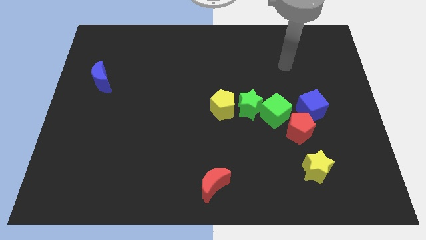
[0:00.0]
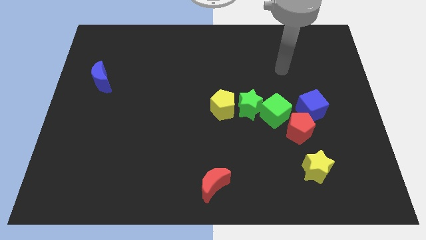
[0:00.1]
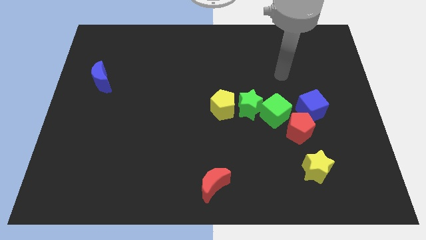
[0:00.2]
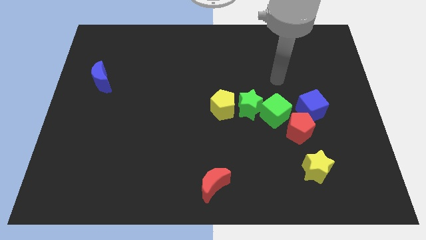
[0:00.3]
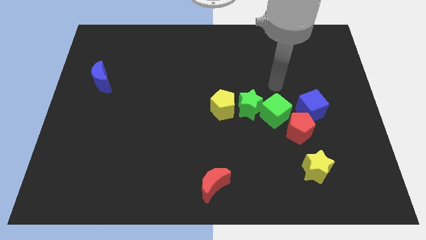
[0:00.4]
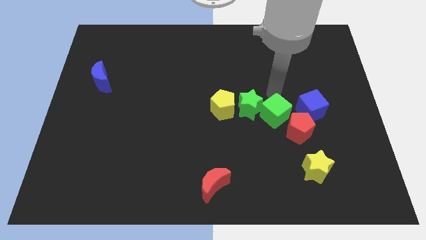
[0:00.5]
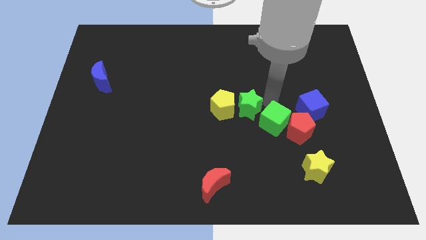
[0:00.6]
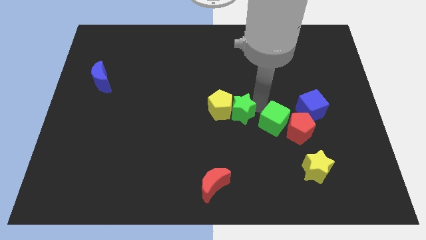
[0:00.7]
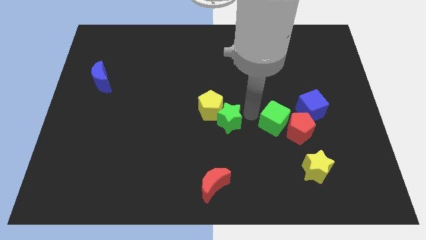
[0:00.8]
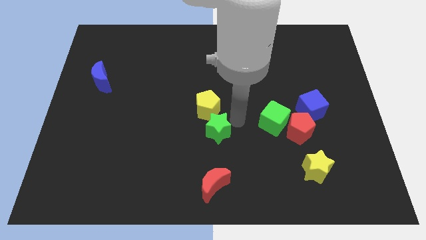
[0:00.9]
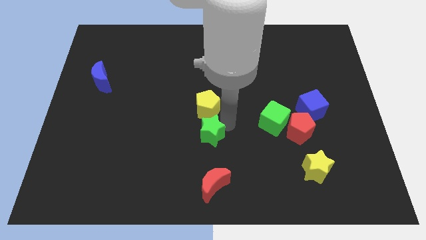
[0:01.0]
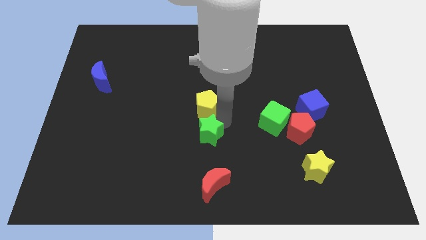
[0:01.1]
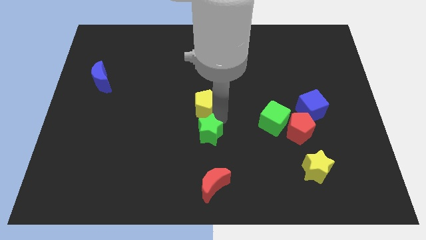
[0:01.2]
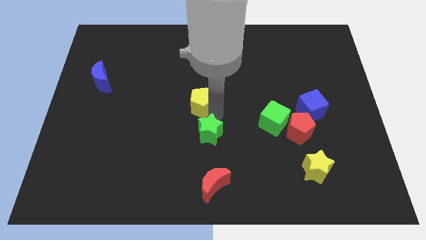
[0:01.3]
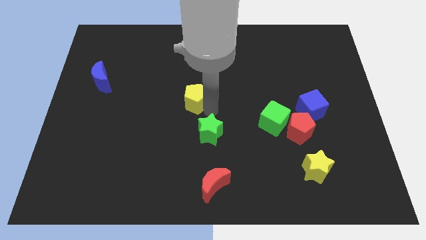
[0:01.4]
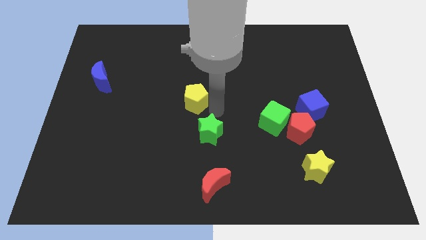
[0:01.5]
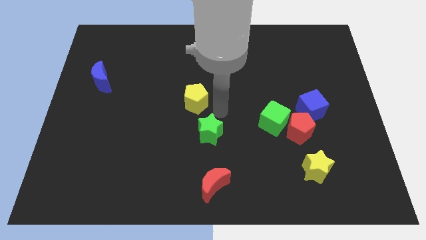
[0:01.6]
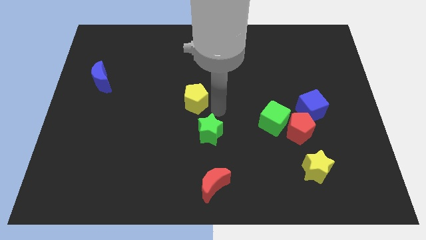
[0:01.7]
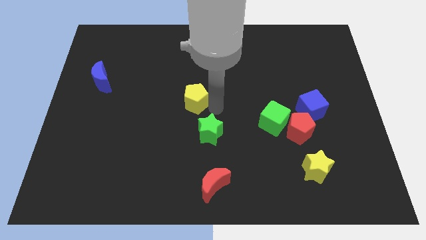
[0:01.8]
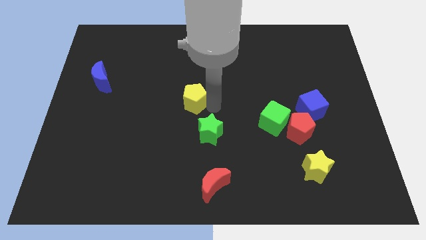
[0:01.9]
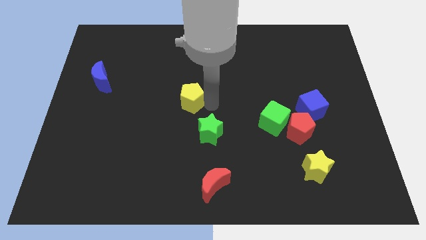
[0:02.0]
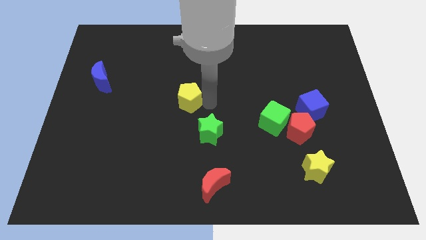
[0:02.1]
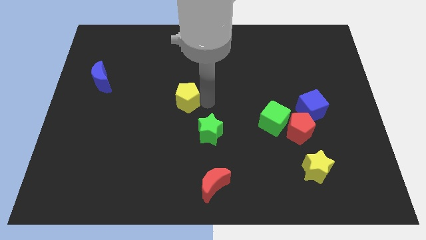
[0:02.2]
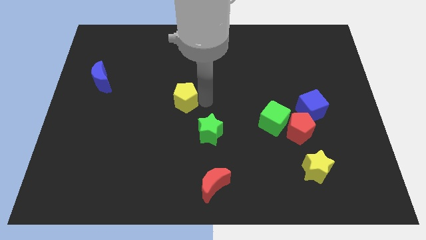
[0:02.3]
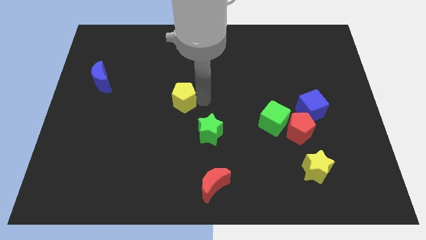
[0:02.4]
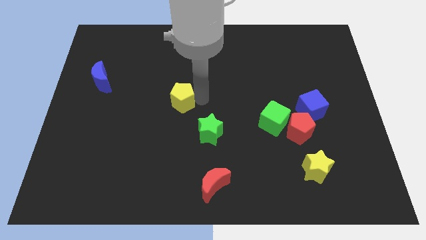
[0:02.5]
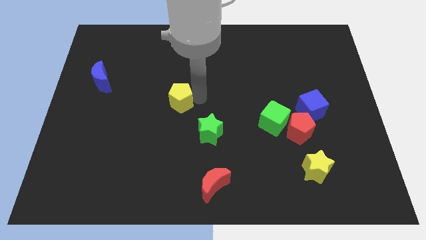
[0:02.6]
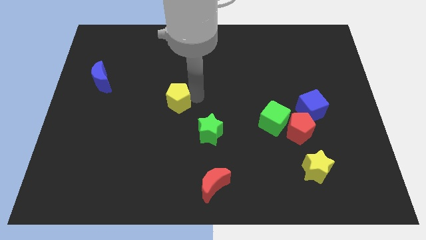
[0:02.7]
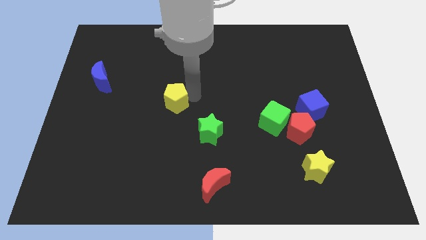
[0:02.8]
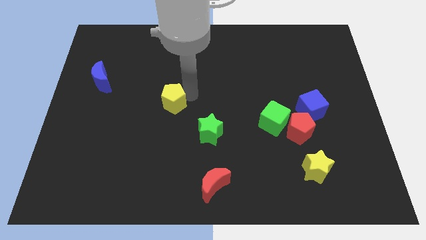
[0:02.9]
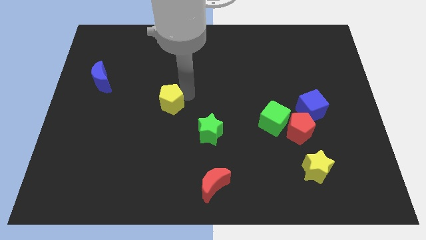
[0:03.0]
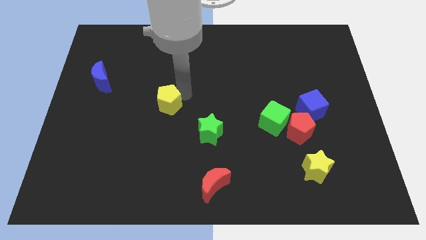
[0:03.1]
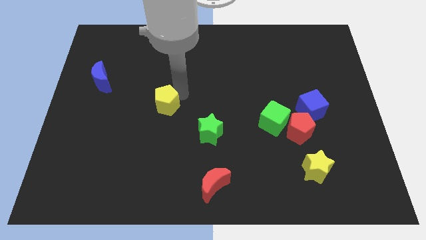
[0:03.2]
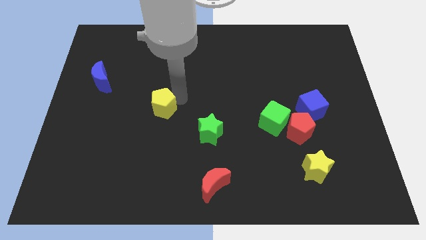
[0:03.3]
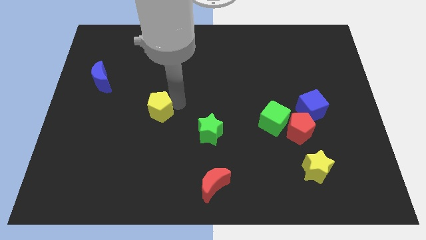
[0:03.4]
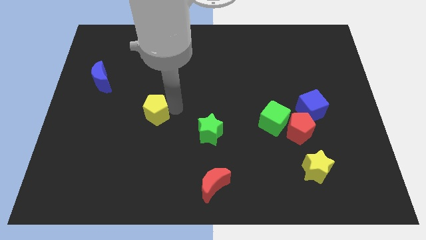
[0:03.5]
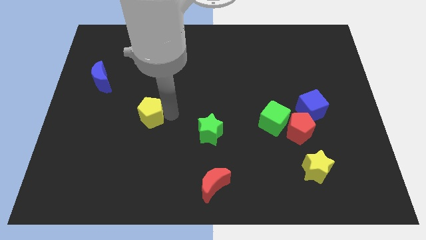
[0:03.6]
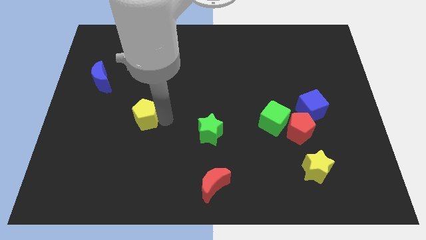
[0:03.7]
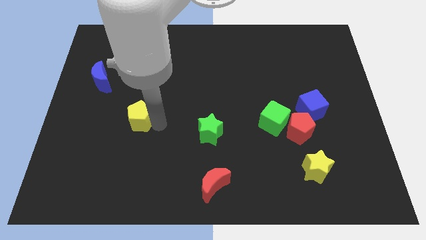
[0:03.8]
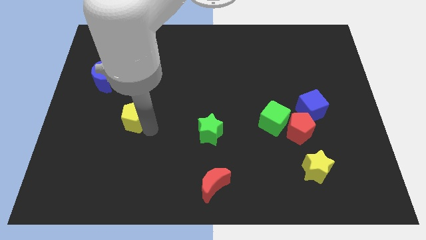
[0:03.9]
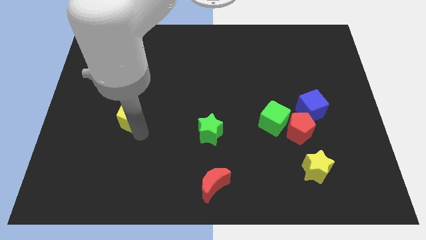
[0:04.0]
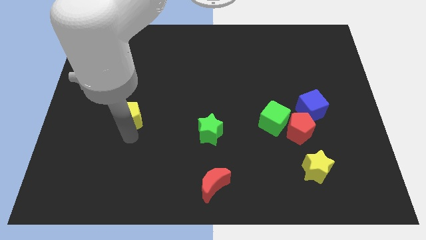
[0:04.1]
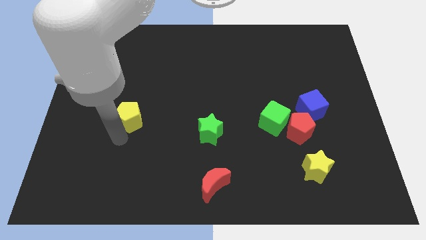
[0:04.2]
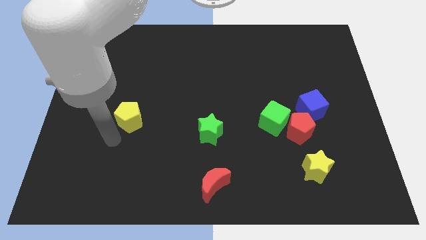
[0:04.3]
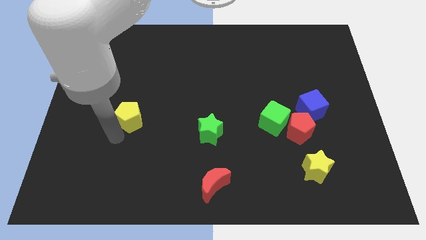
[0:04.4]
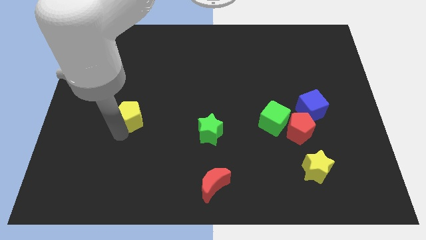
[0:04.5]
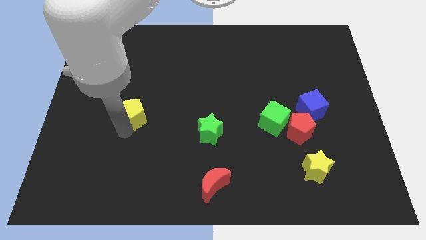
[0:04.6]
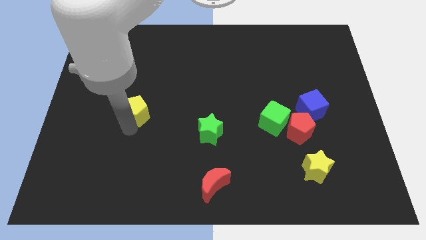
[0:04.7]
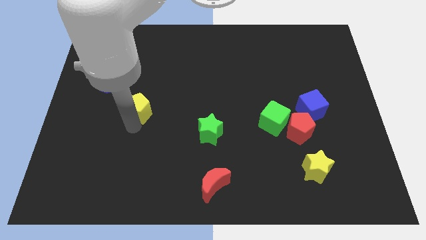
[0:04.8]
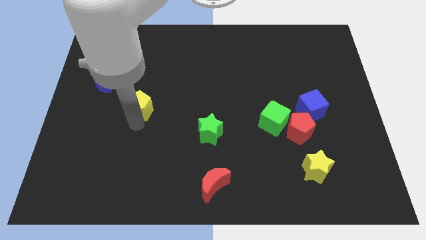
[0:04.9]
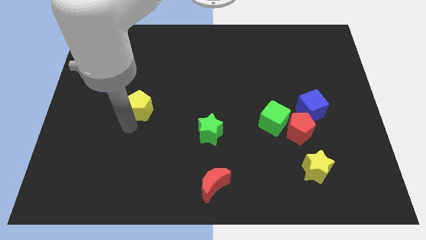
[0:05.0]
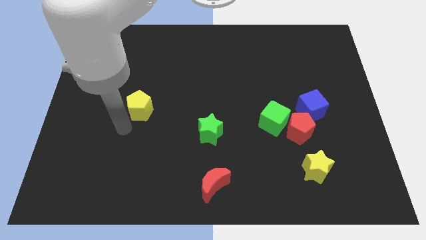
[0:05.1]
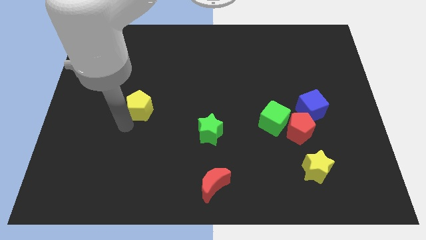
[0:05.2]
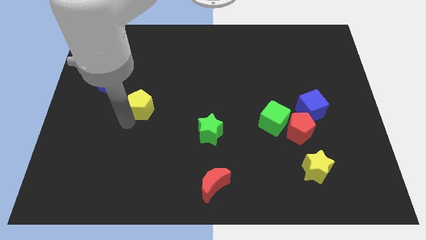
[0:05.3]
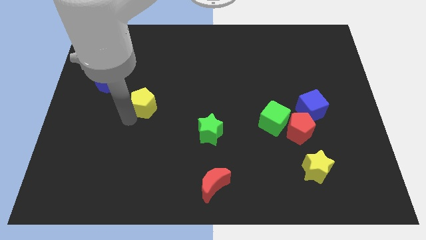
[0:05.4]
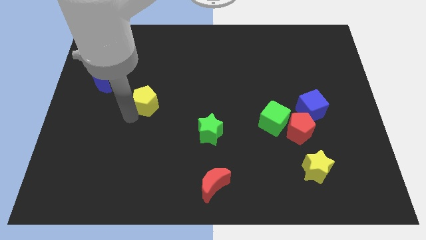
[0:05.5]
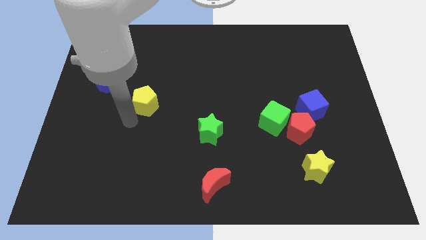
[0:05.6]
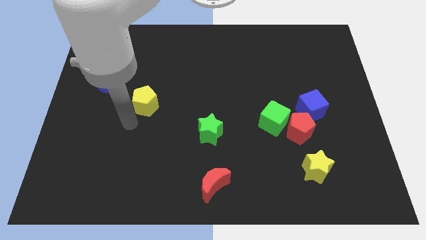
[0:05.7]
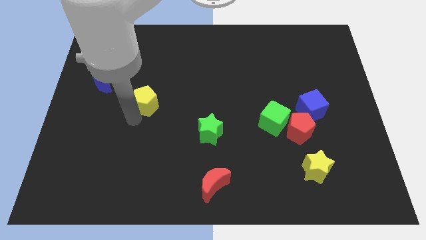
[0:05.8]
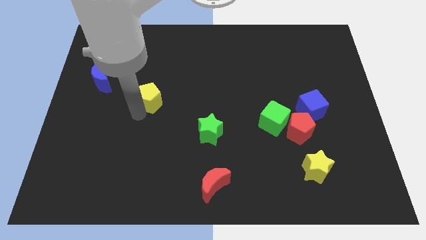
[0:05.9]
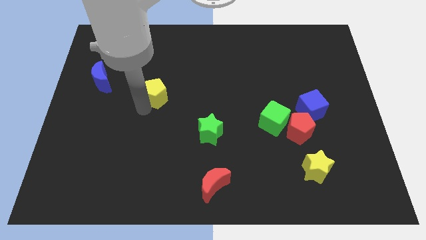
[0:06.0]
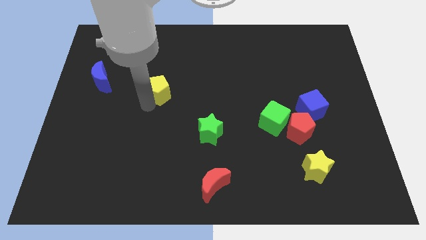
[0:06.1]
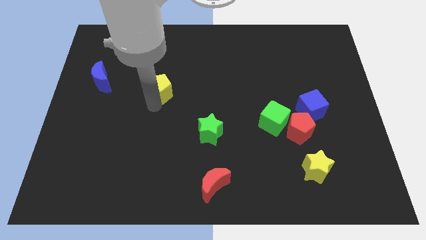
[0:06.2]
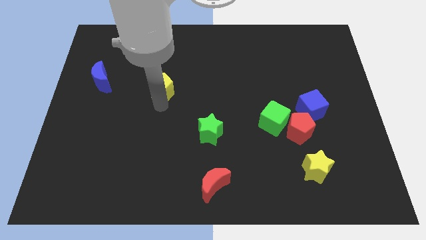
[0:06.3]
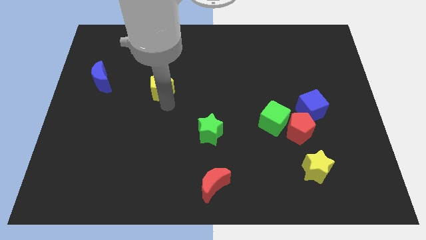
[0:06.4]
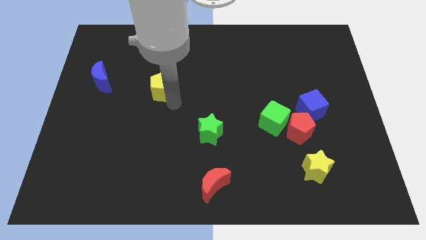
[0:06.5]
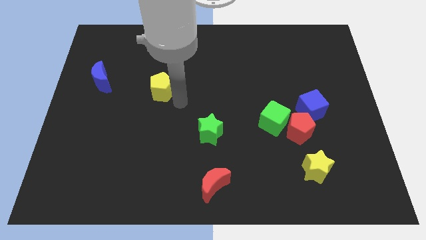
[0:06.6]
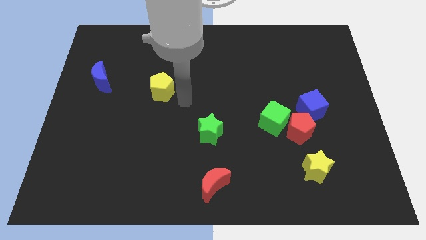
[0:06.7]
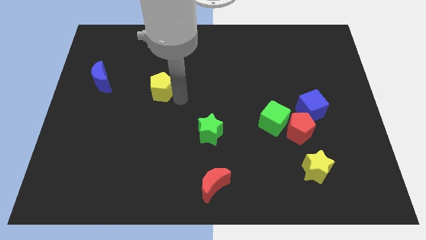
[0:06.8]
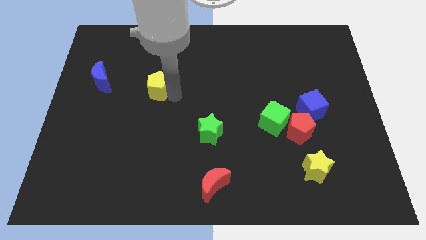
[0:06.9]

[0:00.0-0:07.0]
put the yellow pentagon just right of the blue moon

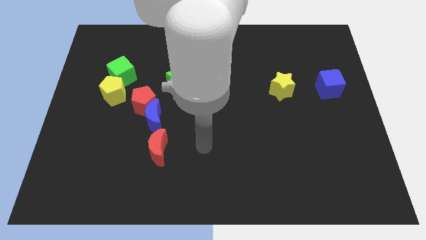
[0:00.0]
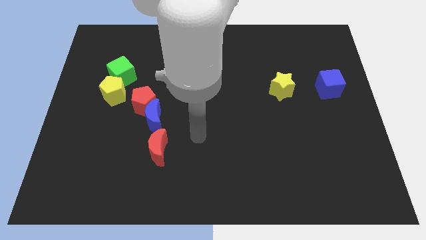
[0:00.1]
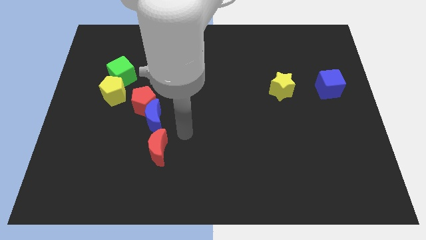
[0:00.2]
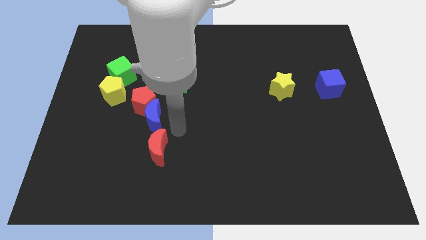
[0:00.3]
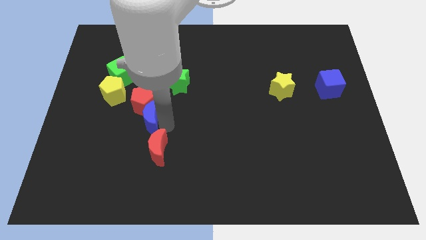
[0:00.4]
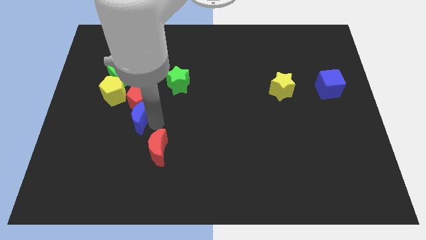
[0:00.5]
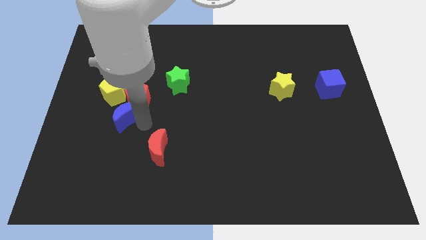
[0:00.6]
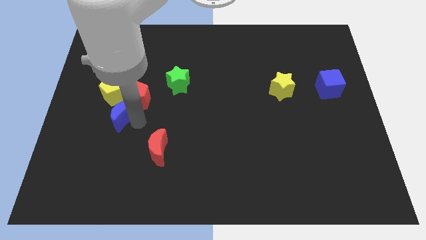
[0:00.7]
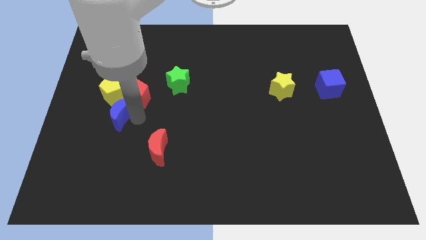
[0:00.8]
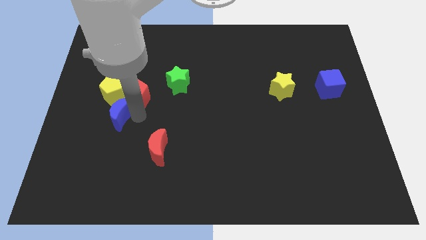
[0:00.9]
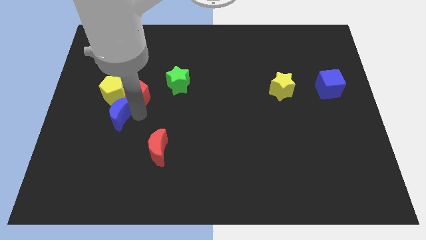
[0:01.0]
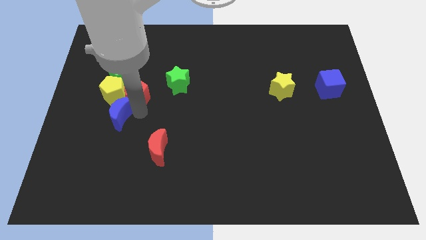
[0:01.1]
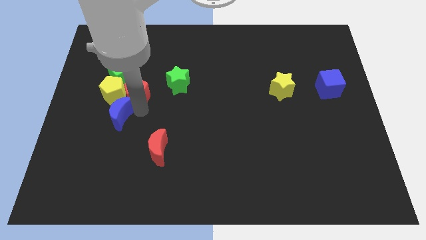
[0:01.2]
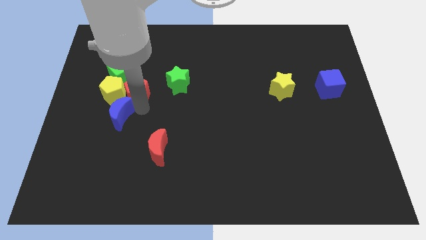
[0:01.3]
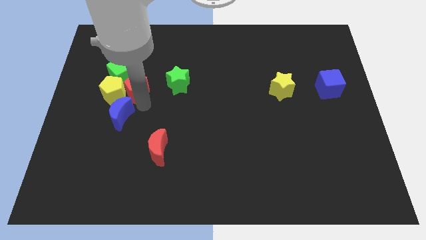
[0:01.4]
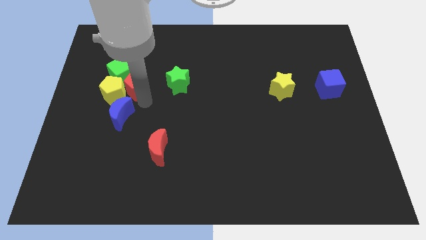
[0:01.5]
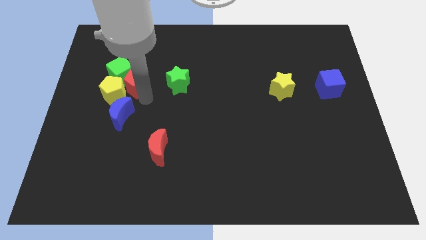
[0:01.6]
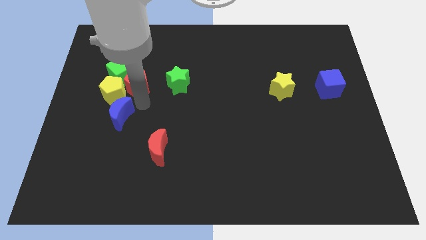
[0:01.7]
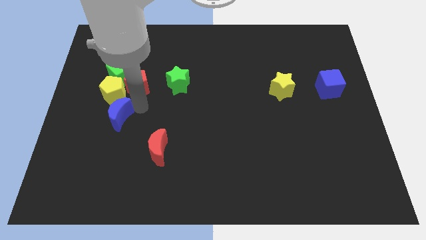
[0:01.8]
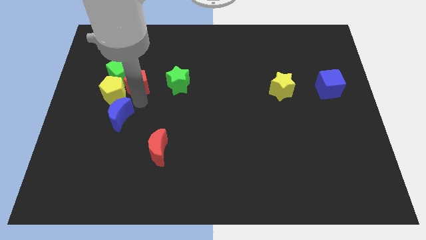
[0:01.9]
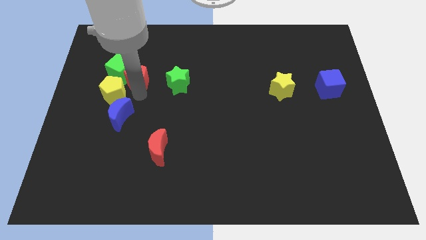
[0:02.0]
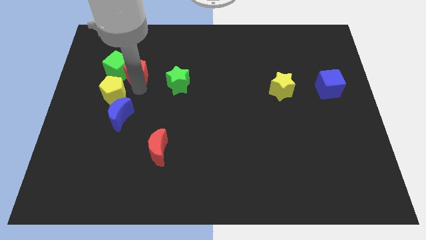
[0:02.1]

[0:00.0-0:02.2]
slide the red pentagon to the top of the yellow pentagon
